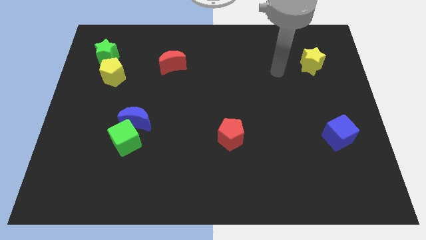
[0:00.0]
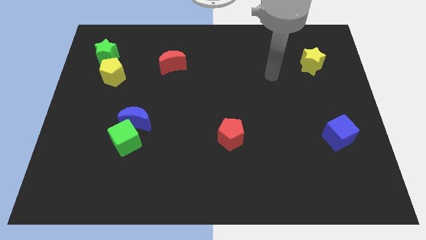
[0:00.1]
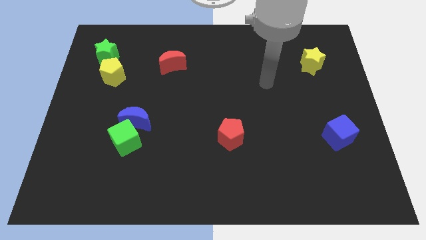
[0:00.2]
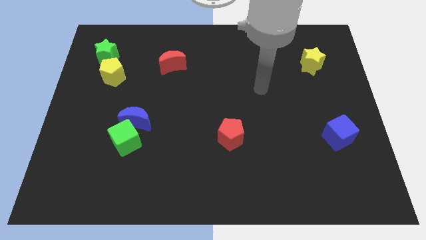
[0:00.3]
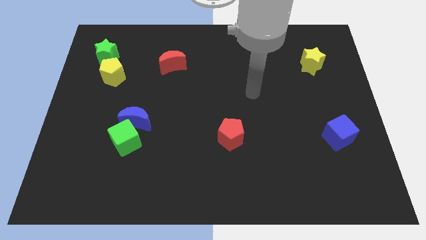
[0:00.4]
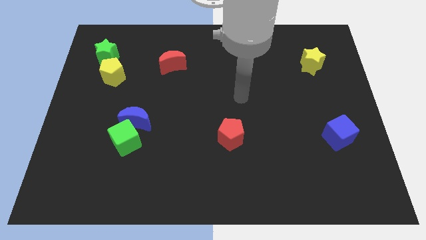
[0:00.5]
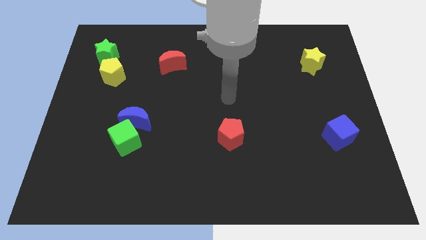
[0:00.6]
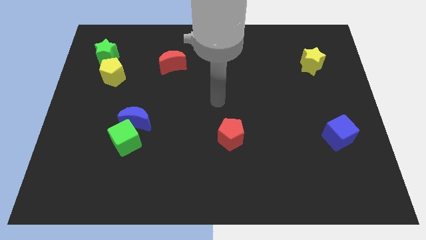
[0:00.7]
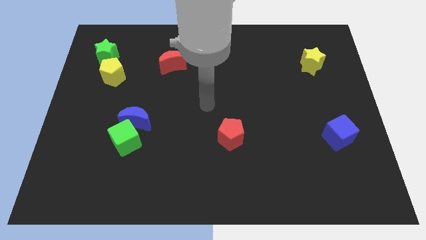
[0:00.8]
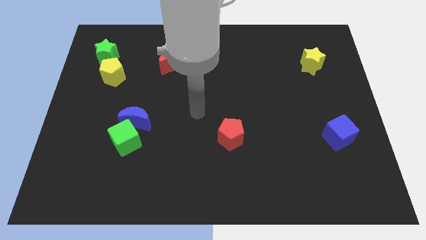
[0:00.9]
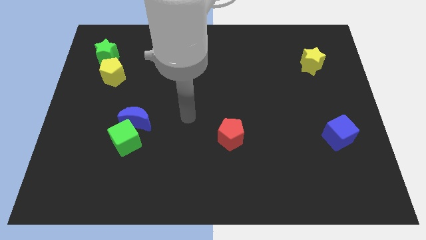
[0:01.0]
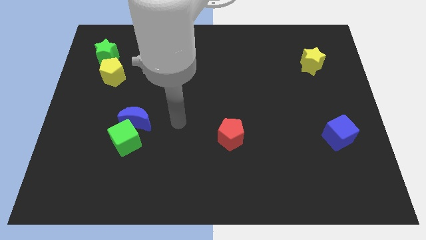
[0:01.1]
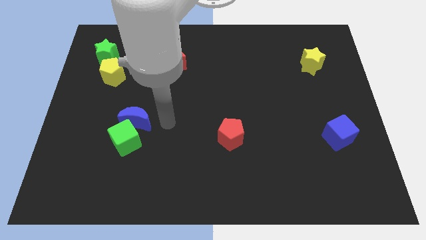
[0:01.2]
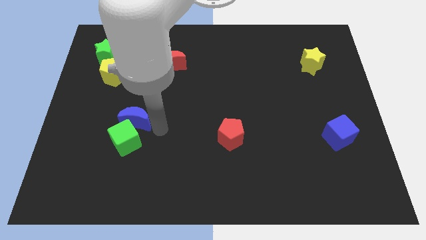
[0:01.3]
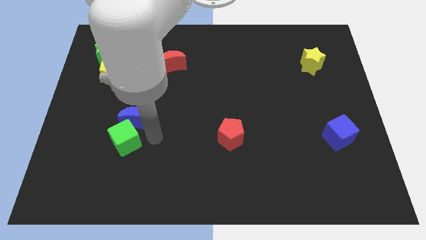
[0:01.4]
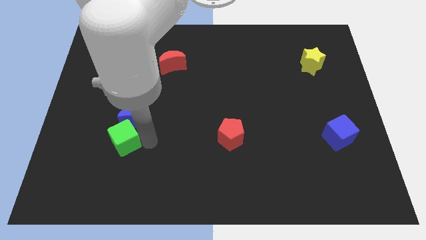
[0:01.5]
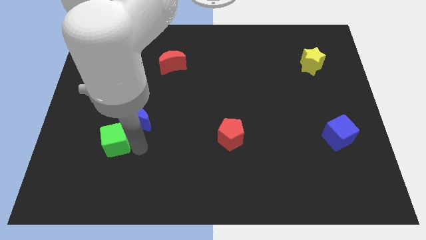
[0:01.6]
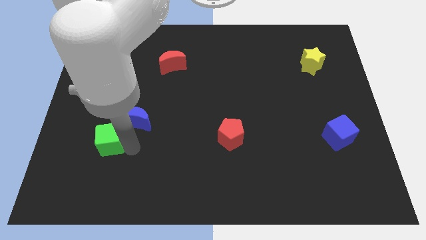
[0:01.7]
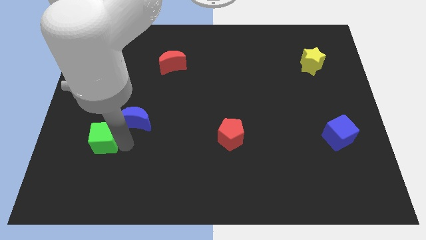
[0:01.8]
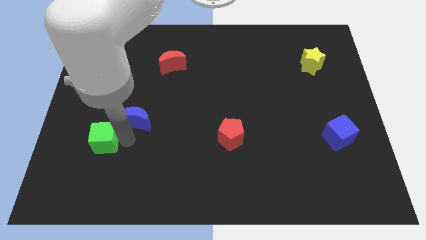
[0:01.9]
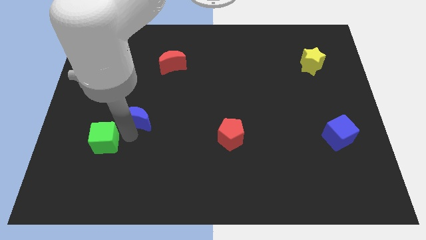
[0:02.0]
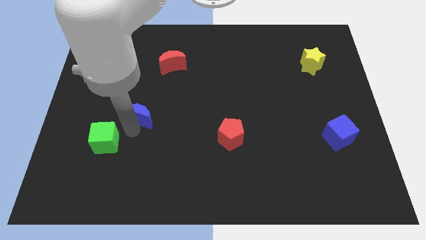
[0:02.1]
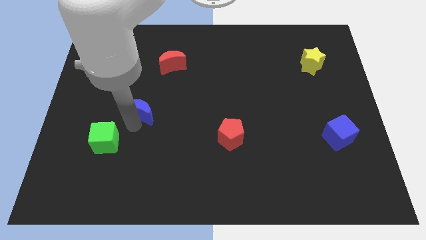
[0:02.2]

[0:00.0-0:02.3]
separate the blue moon from the green cube

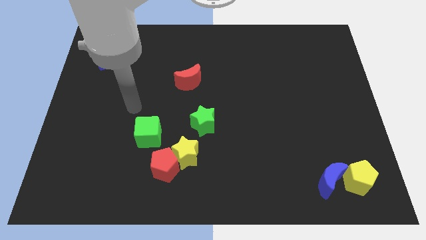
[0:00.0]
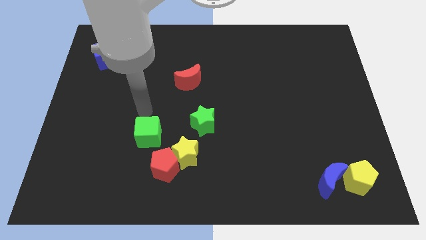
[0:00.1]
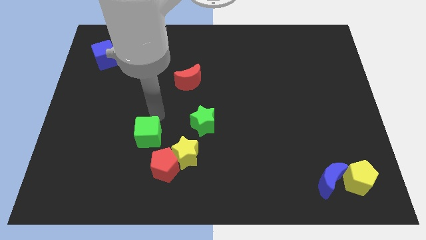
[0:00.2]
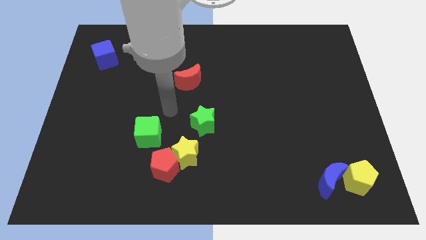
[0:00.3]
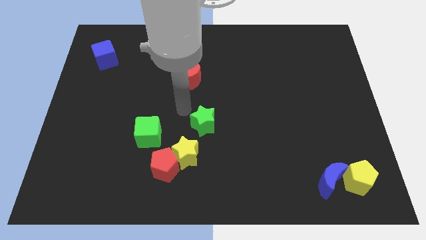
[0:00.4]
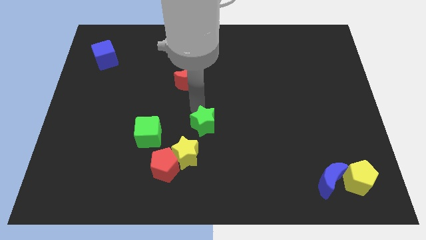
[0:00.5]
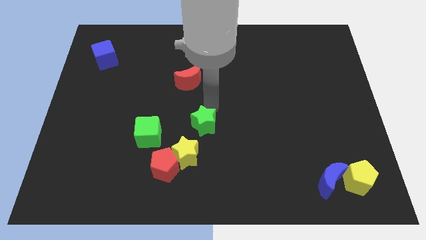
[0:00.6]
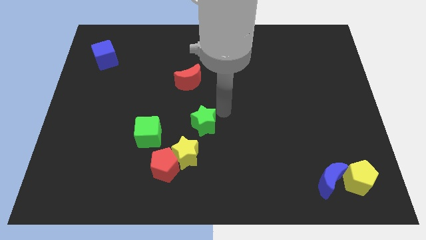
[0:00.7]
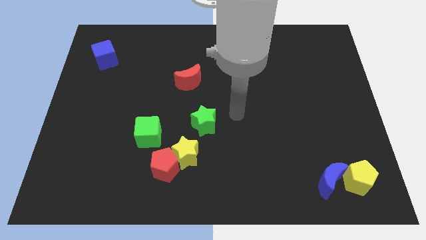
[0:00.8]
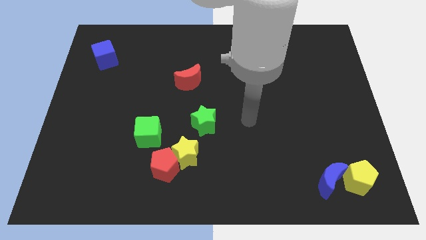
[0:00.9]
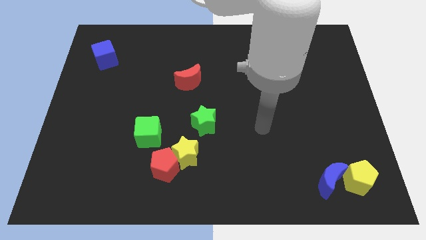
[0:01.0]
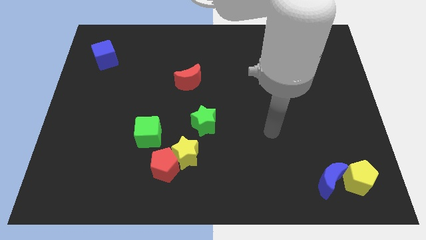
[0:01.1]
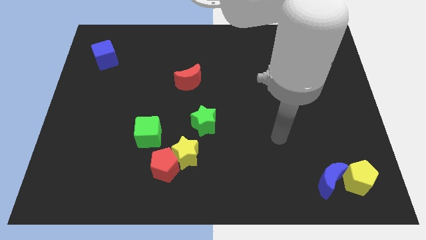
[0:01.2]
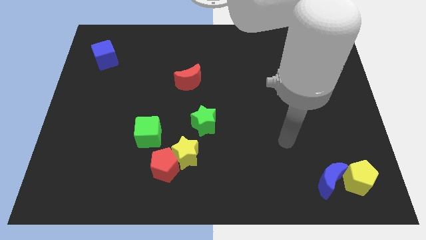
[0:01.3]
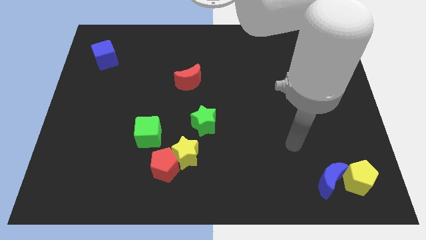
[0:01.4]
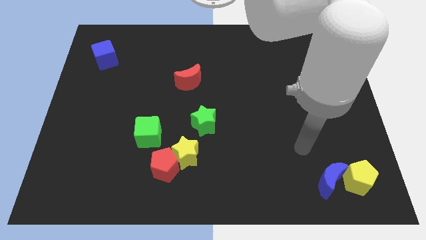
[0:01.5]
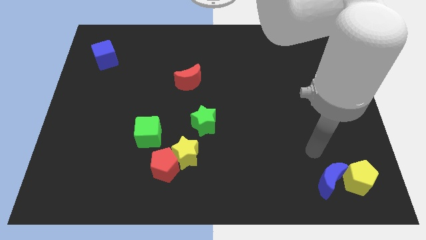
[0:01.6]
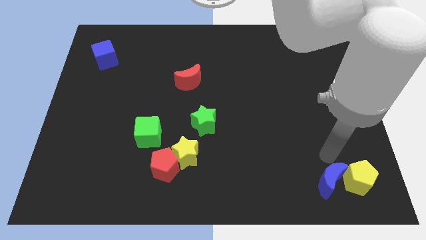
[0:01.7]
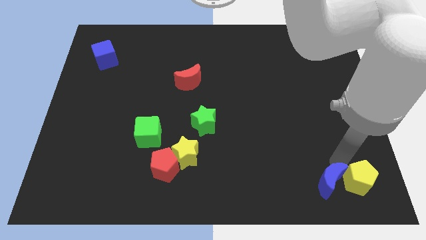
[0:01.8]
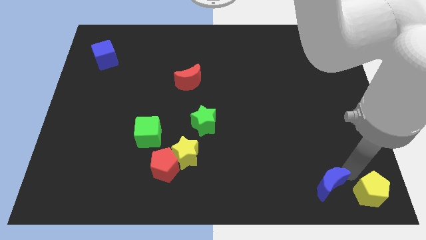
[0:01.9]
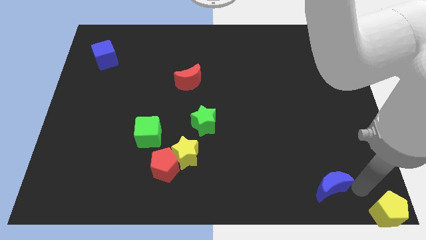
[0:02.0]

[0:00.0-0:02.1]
move the blue moon away from the yellow pentagon

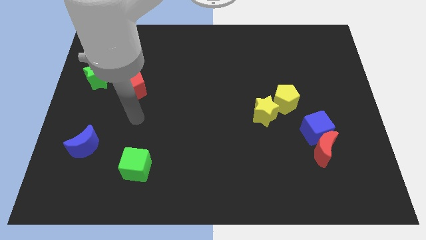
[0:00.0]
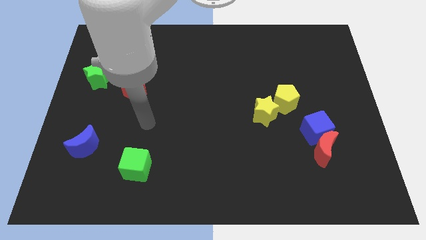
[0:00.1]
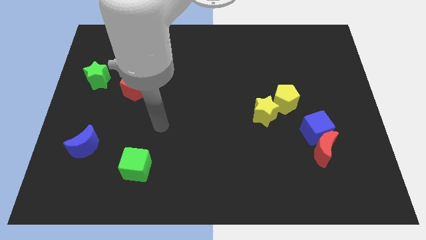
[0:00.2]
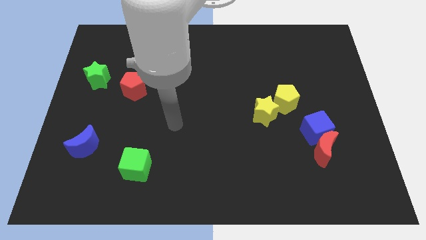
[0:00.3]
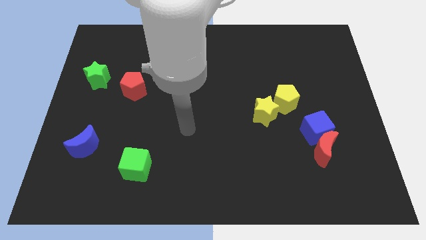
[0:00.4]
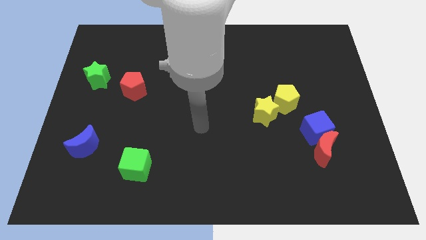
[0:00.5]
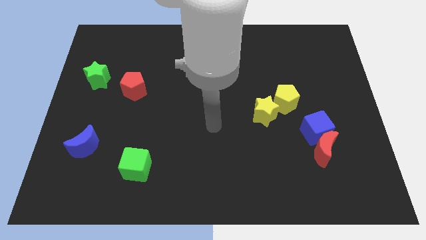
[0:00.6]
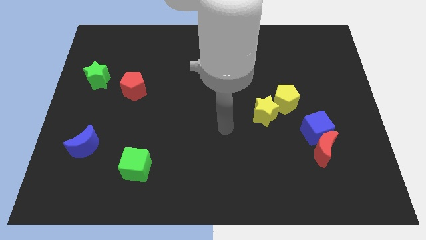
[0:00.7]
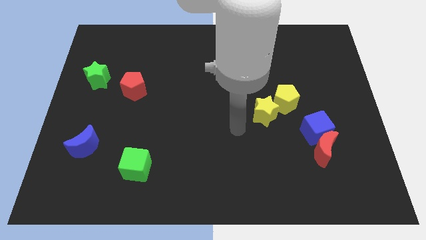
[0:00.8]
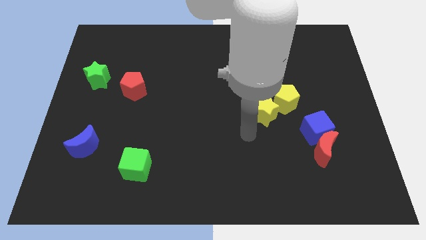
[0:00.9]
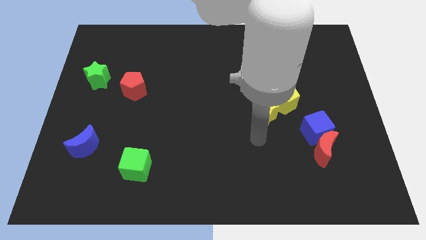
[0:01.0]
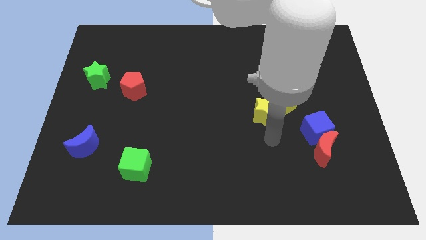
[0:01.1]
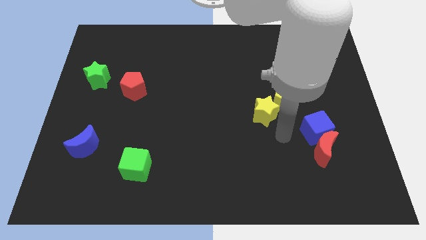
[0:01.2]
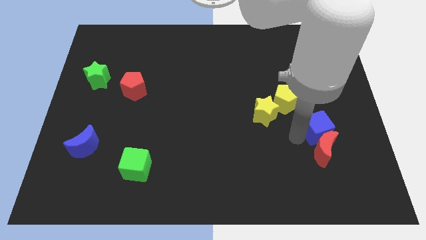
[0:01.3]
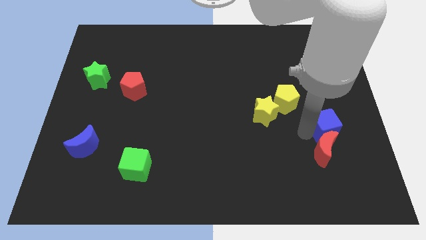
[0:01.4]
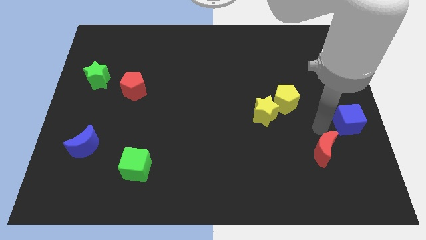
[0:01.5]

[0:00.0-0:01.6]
pull the red moon apart from the blue cube

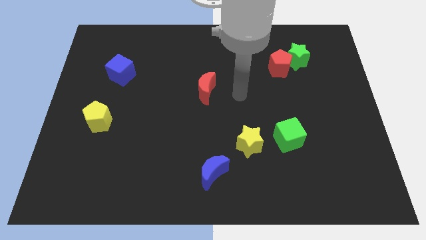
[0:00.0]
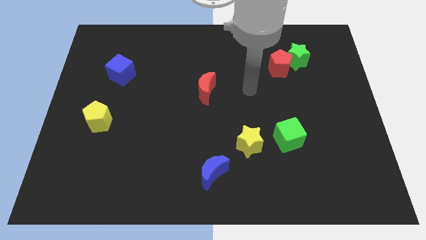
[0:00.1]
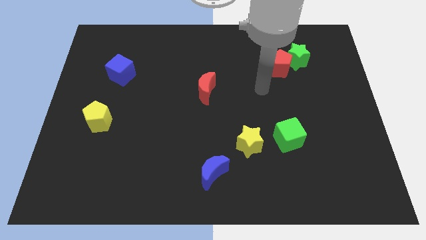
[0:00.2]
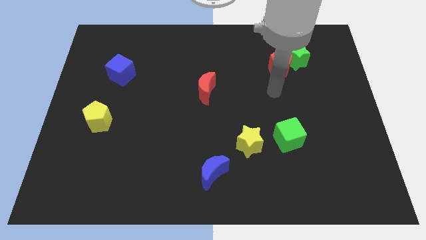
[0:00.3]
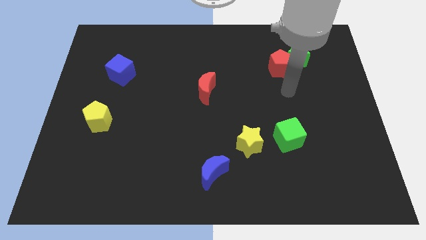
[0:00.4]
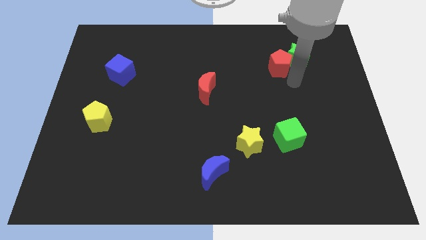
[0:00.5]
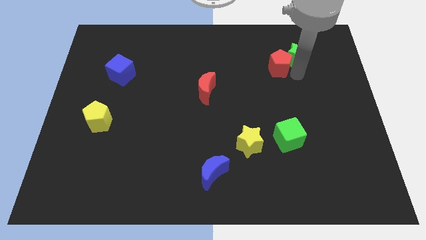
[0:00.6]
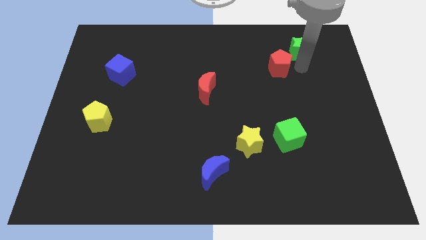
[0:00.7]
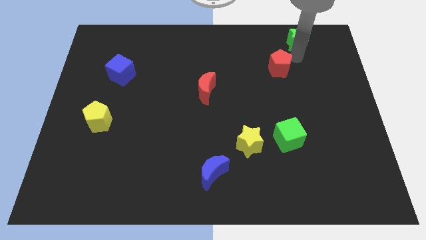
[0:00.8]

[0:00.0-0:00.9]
move the red pentagon away from the green star

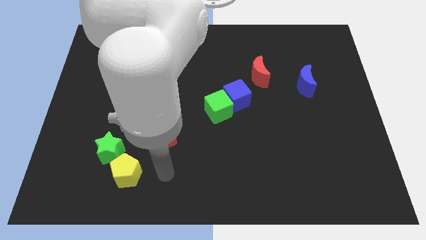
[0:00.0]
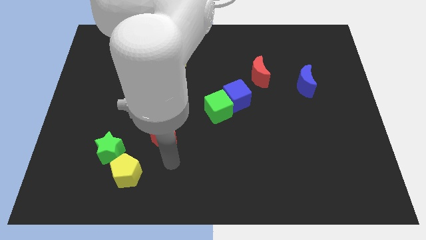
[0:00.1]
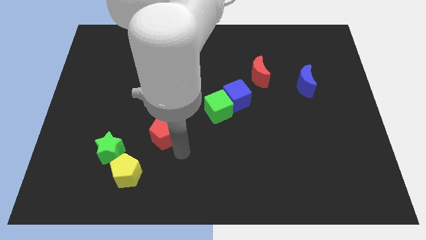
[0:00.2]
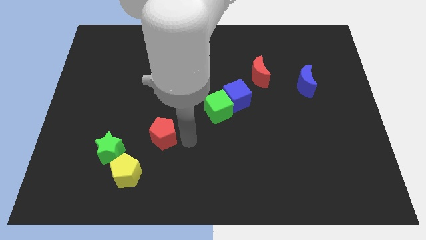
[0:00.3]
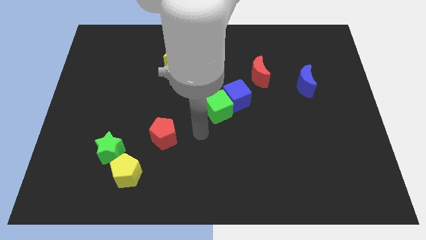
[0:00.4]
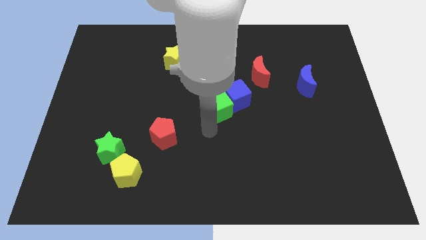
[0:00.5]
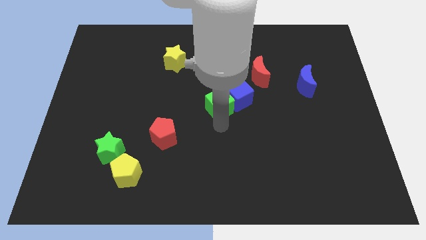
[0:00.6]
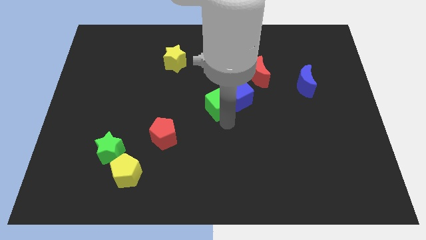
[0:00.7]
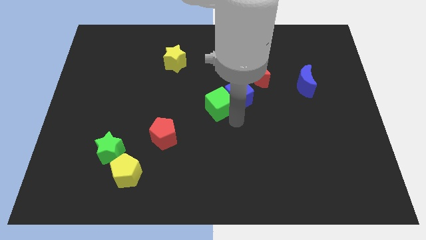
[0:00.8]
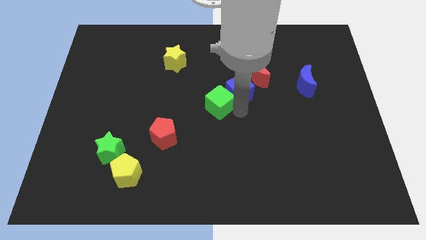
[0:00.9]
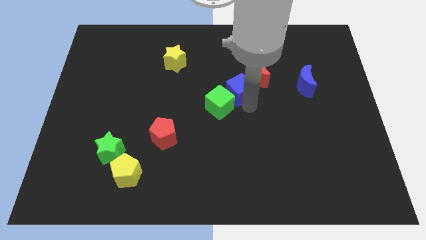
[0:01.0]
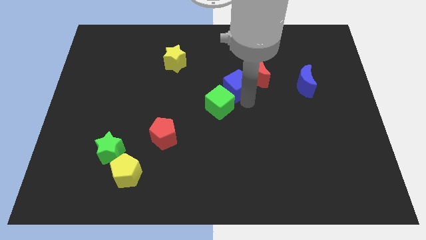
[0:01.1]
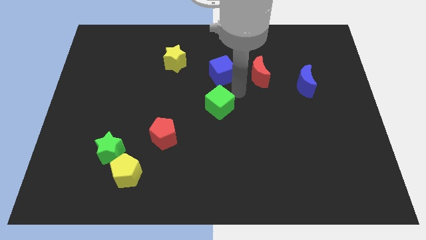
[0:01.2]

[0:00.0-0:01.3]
move the green cube away from the blue cube

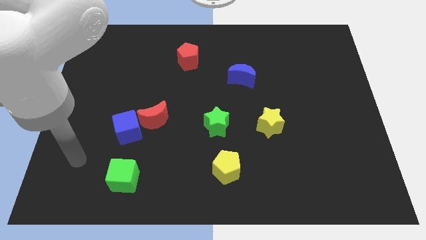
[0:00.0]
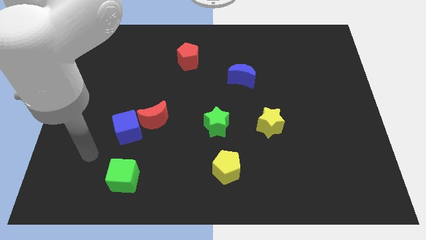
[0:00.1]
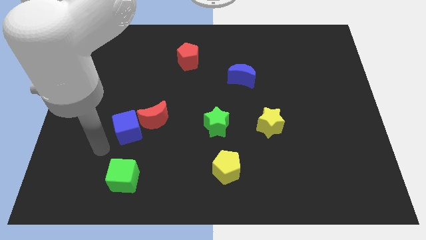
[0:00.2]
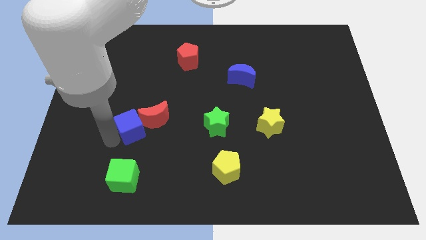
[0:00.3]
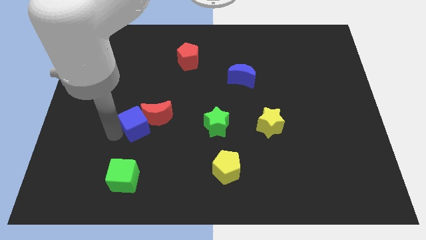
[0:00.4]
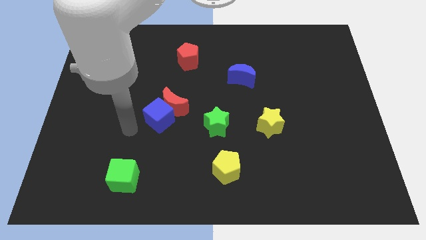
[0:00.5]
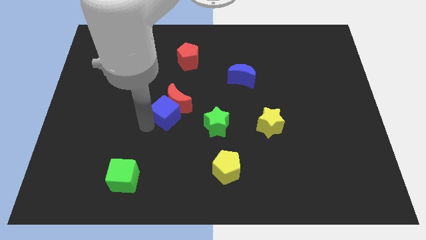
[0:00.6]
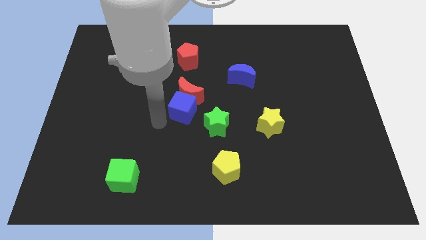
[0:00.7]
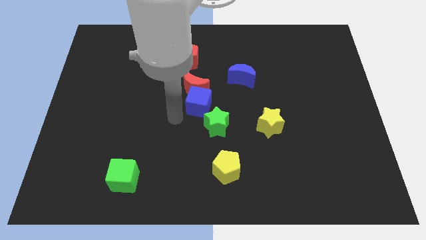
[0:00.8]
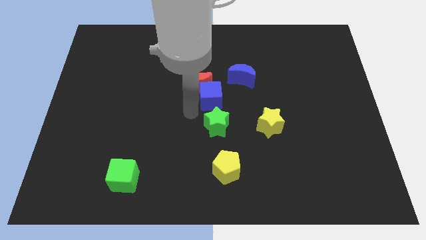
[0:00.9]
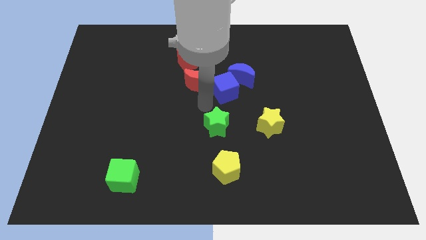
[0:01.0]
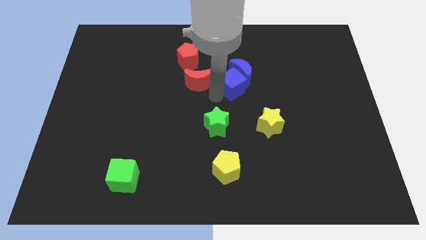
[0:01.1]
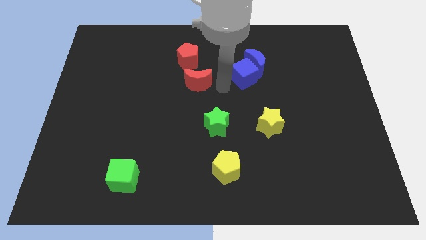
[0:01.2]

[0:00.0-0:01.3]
separate the red moon from the blue cube
